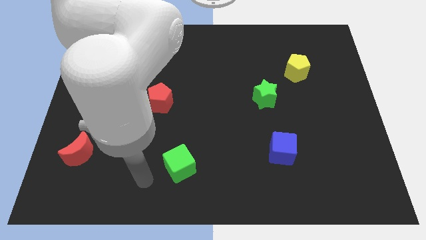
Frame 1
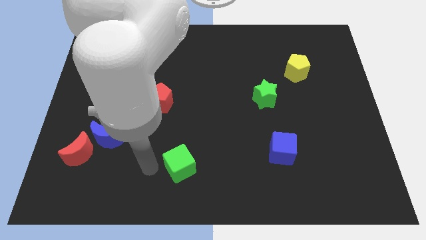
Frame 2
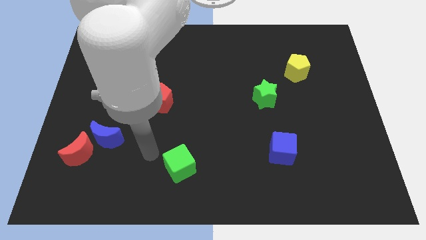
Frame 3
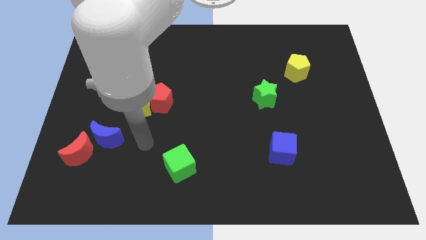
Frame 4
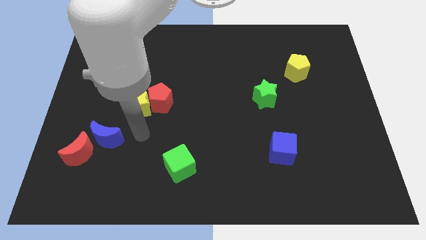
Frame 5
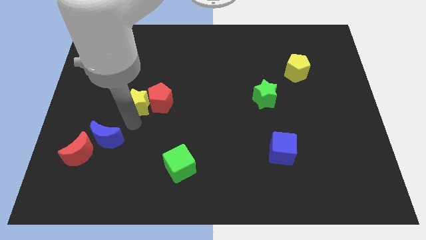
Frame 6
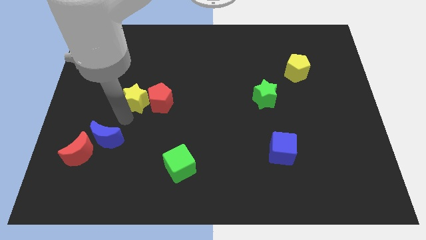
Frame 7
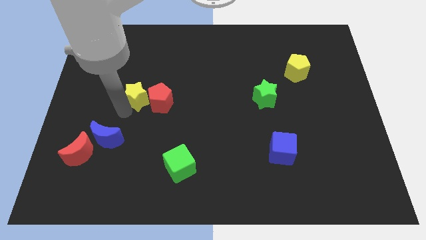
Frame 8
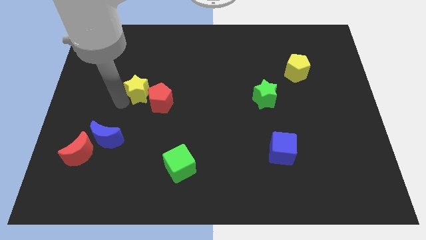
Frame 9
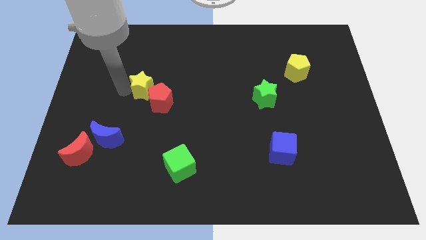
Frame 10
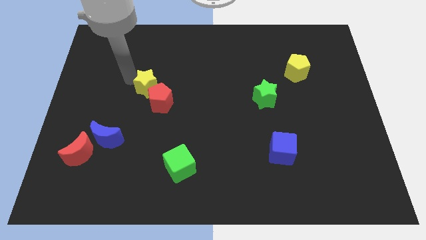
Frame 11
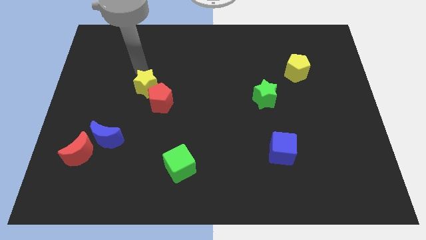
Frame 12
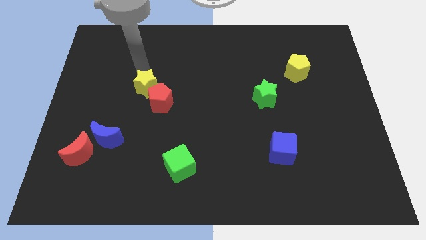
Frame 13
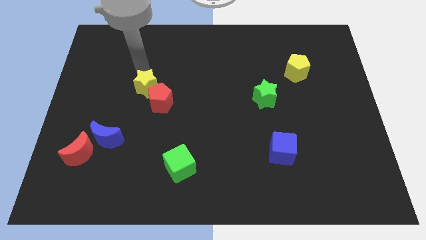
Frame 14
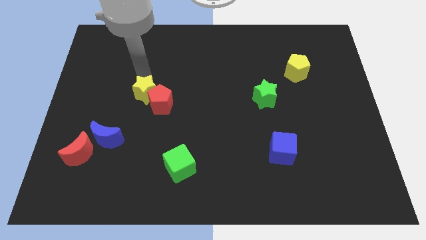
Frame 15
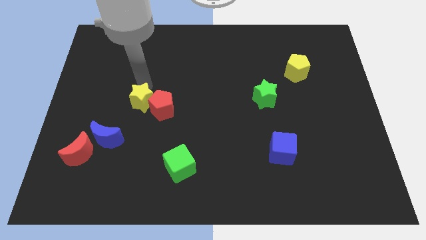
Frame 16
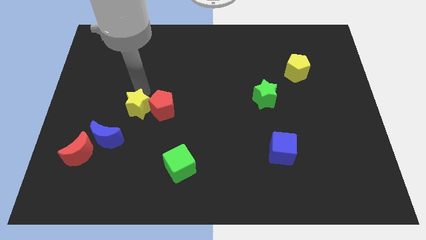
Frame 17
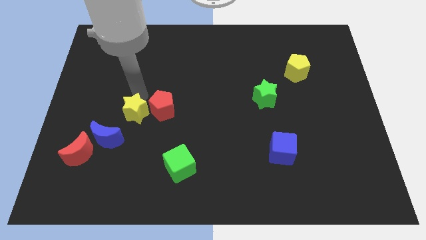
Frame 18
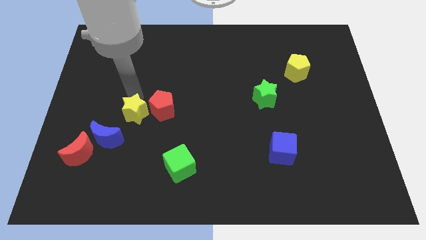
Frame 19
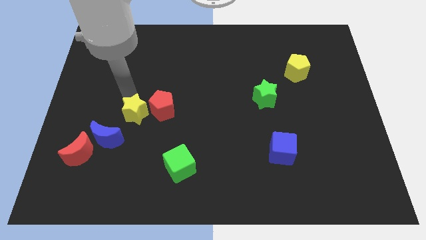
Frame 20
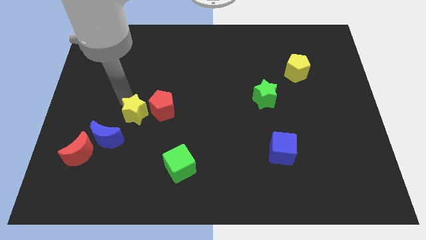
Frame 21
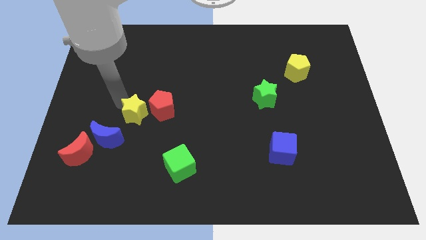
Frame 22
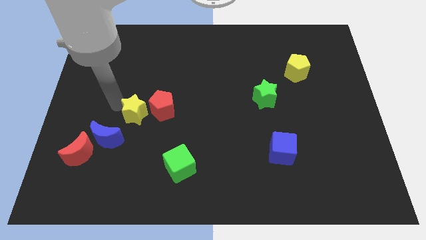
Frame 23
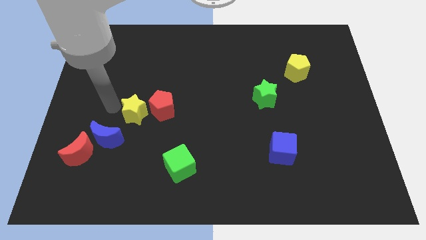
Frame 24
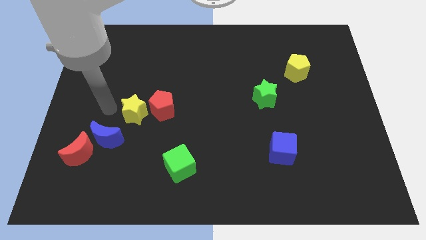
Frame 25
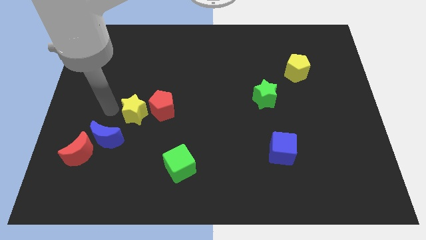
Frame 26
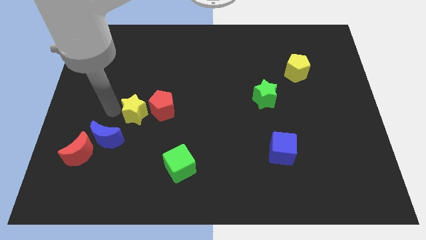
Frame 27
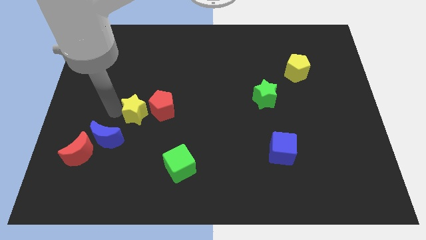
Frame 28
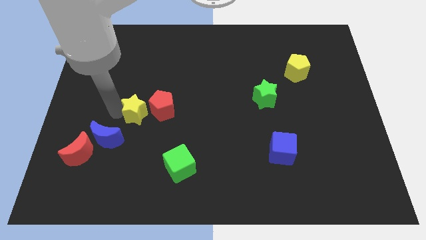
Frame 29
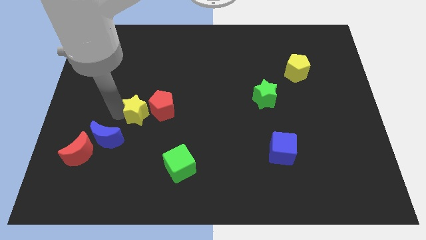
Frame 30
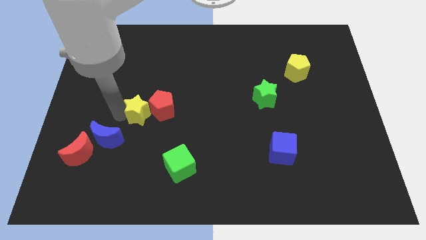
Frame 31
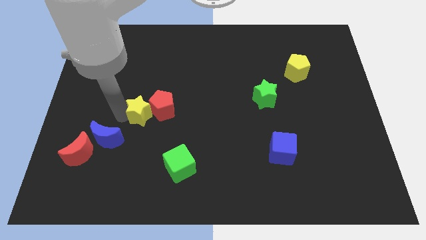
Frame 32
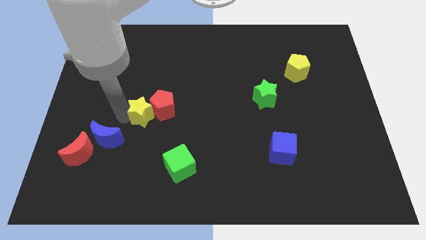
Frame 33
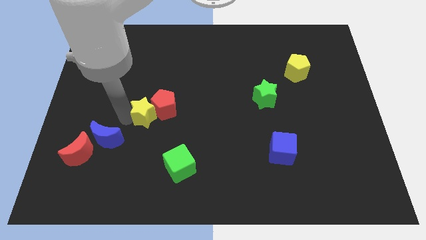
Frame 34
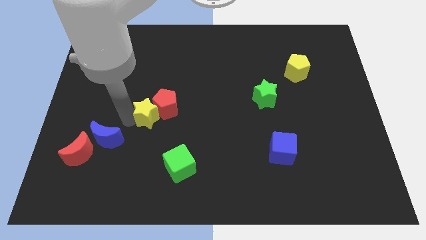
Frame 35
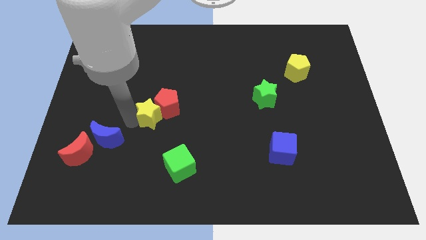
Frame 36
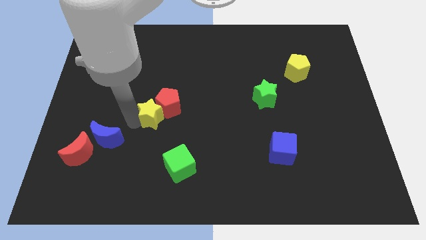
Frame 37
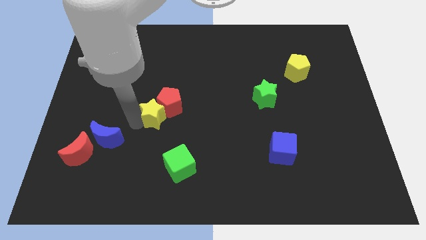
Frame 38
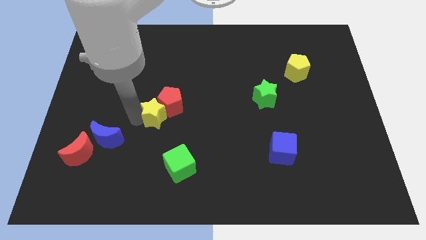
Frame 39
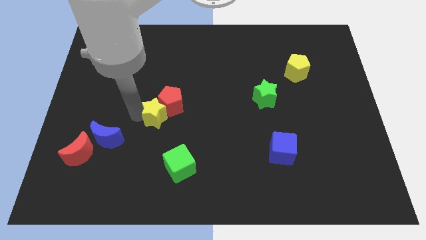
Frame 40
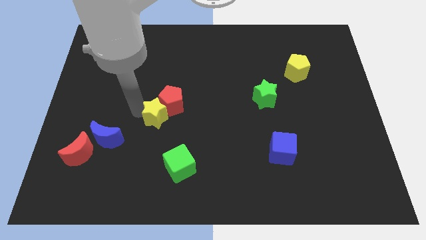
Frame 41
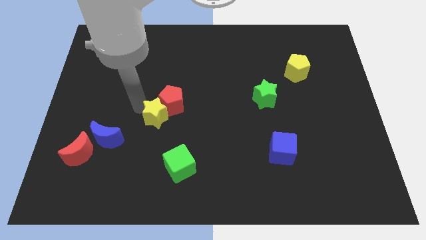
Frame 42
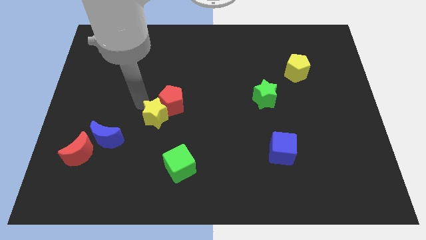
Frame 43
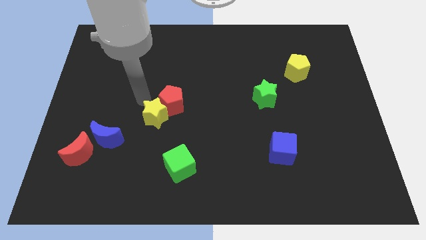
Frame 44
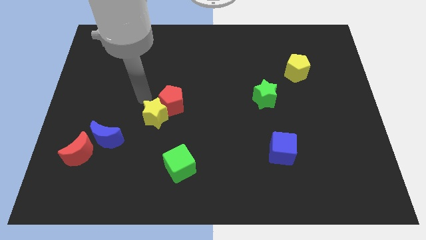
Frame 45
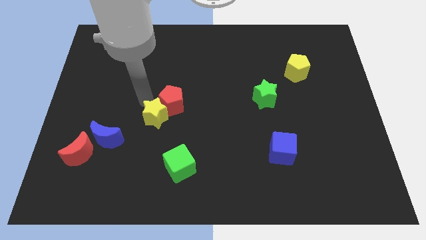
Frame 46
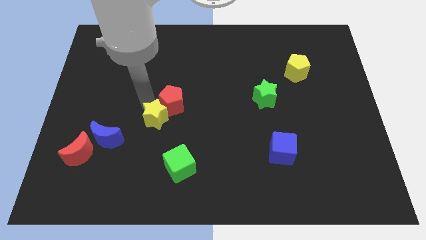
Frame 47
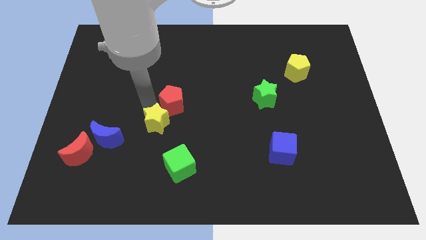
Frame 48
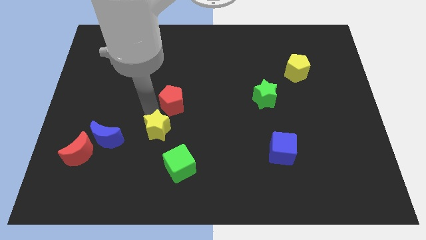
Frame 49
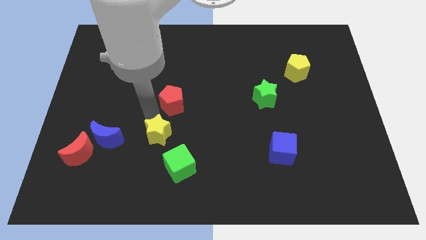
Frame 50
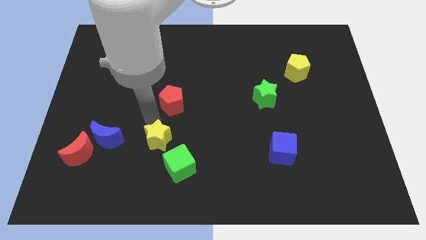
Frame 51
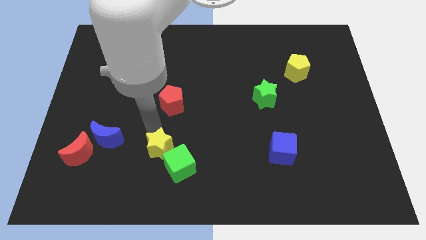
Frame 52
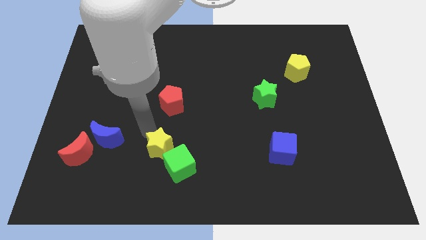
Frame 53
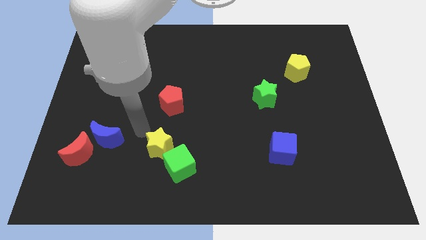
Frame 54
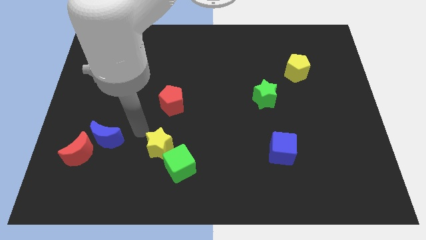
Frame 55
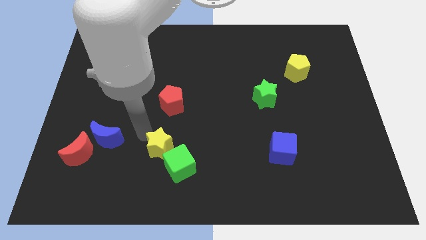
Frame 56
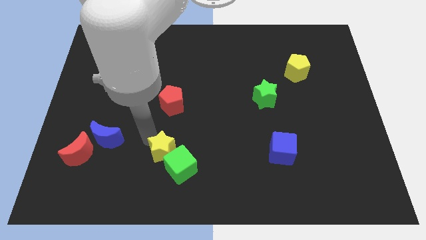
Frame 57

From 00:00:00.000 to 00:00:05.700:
push the yellow star next to the green cube

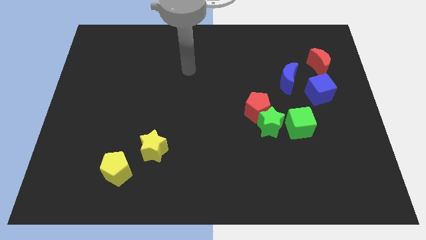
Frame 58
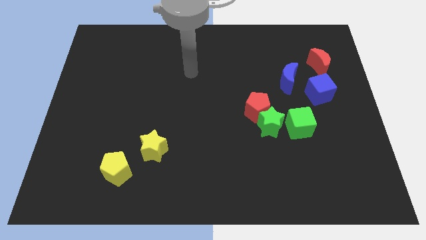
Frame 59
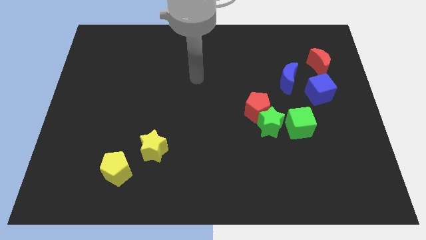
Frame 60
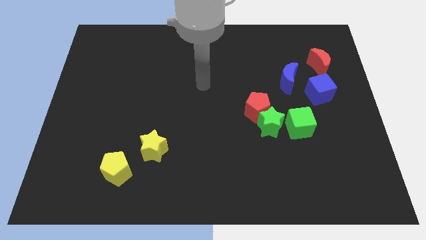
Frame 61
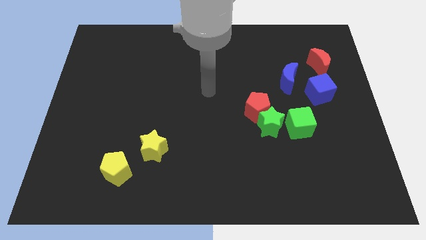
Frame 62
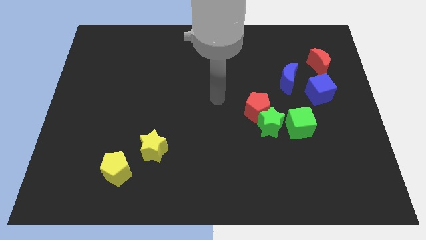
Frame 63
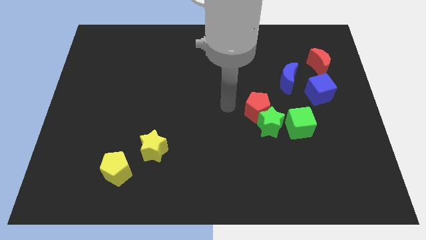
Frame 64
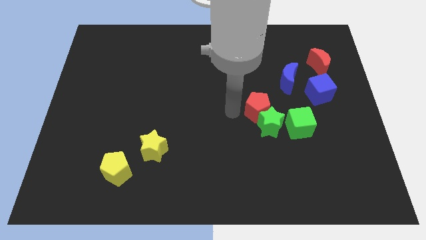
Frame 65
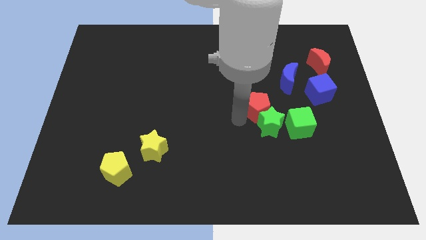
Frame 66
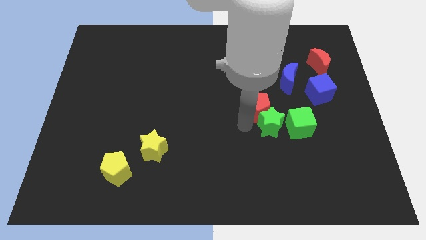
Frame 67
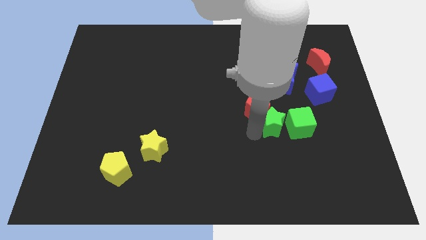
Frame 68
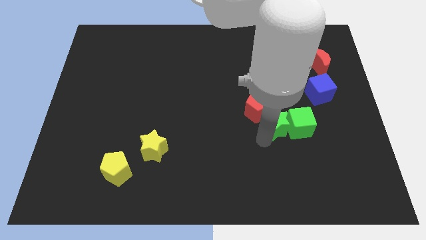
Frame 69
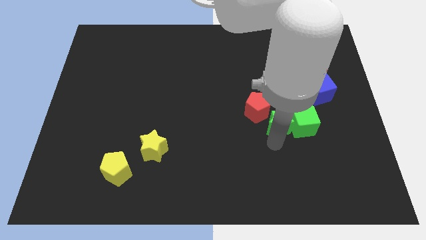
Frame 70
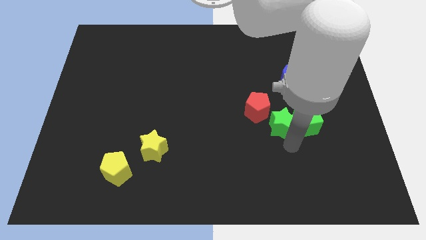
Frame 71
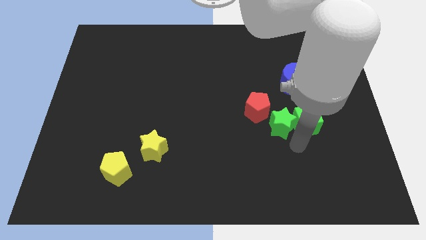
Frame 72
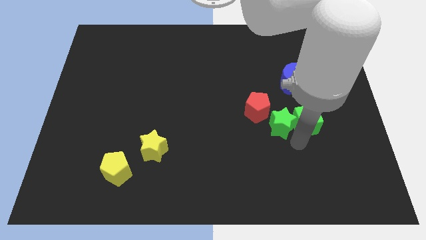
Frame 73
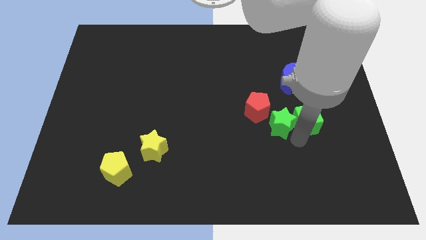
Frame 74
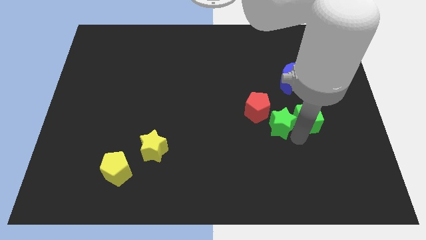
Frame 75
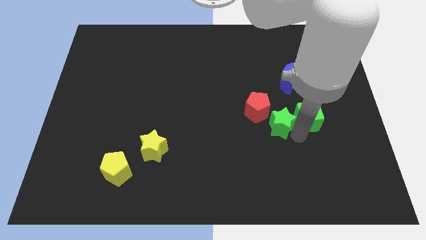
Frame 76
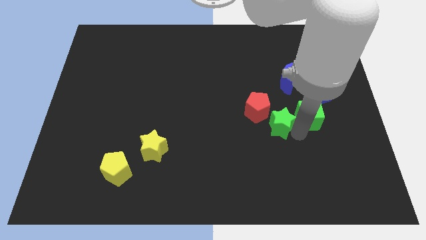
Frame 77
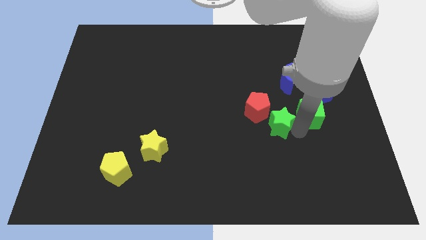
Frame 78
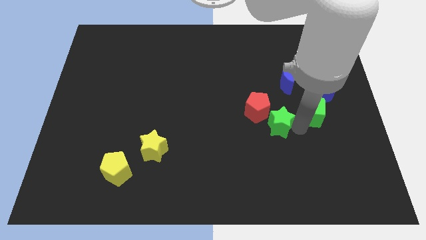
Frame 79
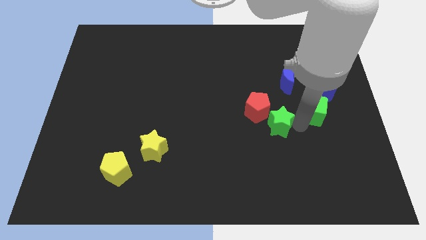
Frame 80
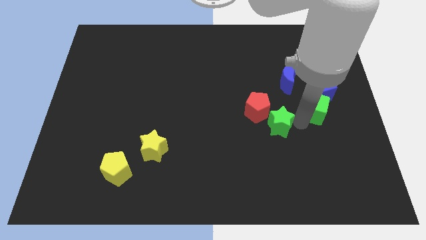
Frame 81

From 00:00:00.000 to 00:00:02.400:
move the green cube towards the blue cube

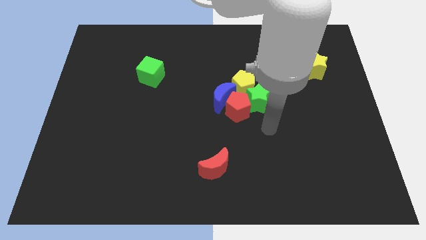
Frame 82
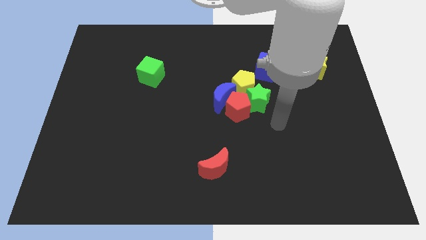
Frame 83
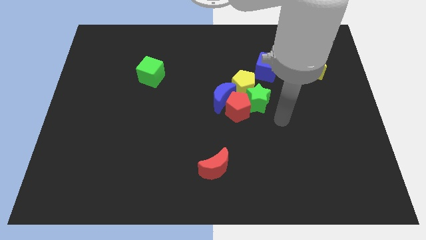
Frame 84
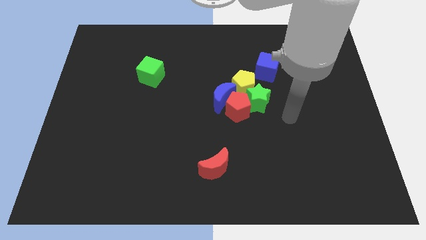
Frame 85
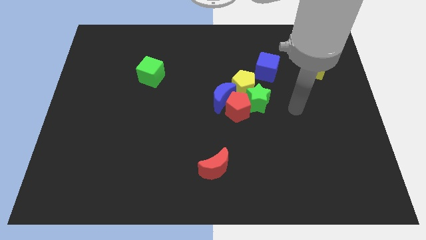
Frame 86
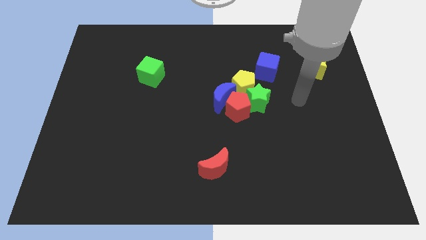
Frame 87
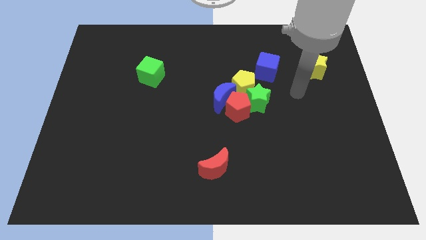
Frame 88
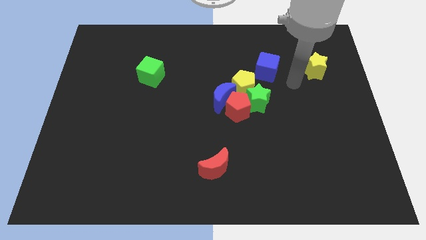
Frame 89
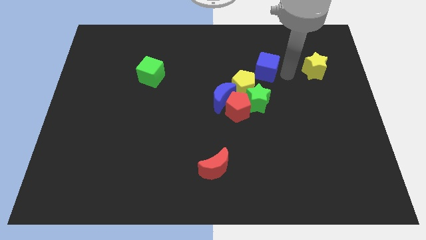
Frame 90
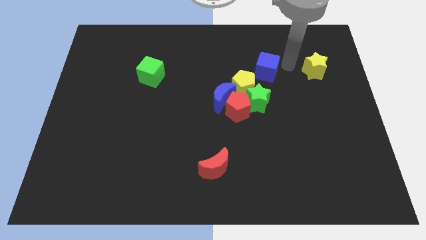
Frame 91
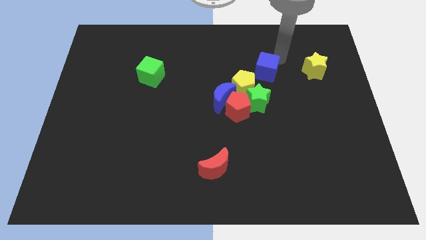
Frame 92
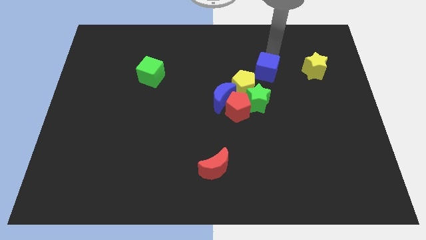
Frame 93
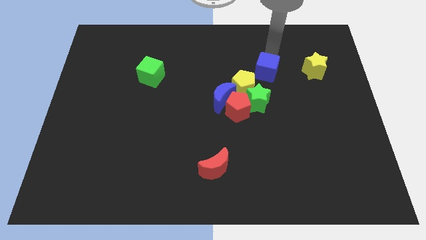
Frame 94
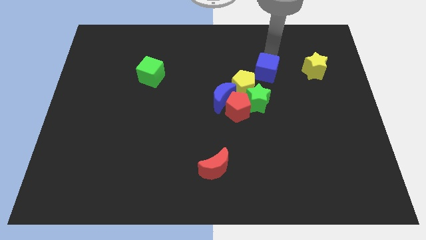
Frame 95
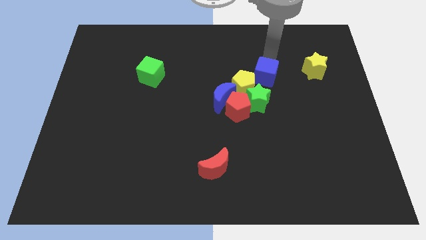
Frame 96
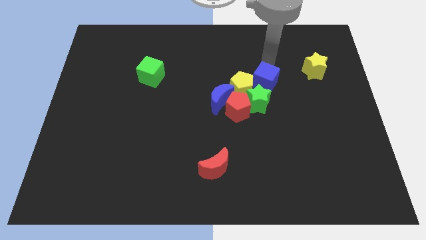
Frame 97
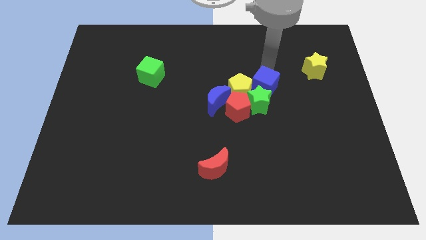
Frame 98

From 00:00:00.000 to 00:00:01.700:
move the blue cube next to the green star
